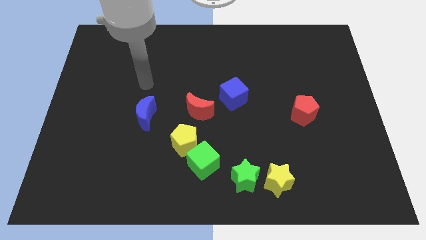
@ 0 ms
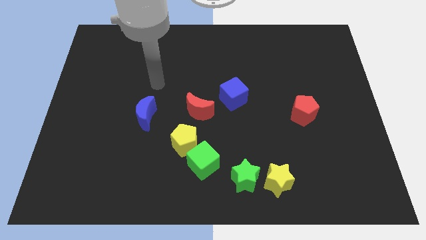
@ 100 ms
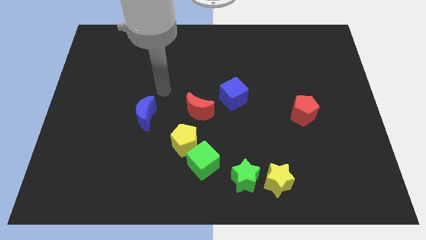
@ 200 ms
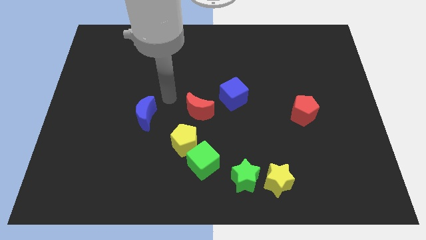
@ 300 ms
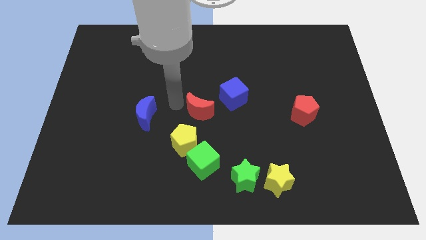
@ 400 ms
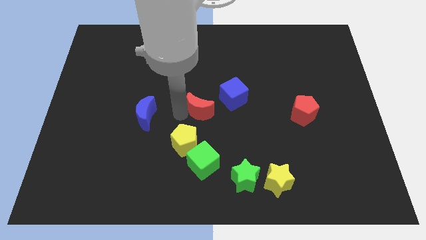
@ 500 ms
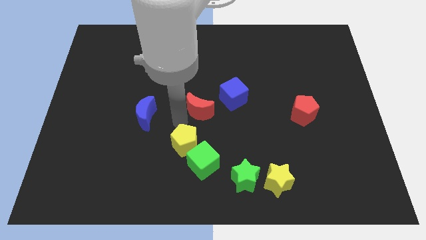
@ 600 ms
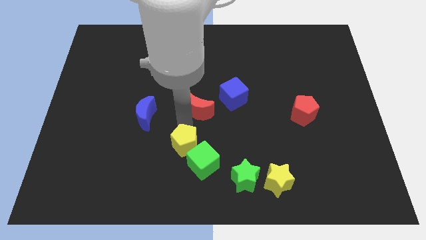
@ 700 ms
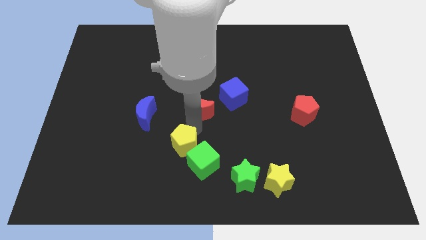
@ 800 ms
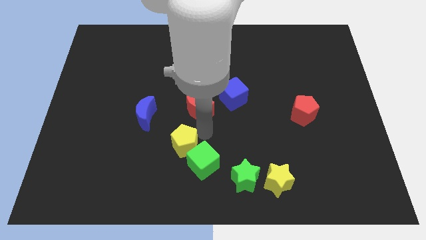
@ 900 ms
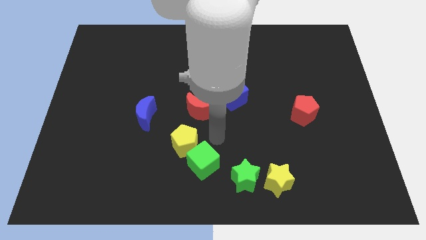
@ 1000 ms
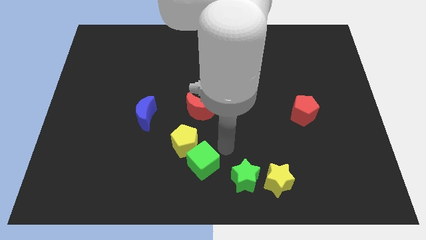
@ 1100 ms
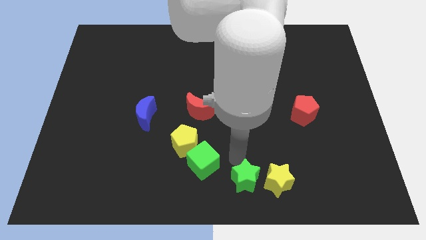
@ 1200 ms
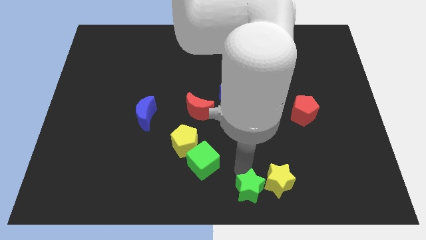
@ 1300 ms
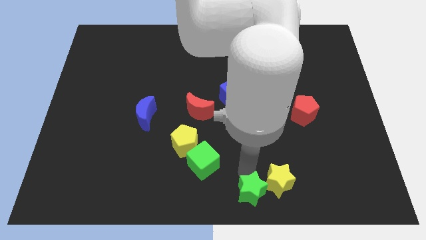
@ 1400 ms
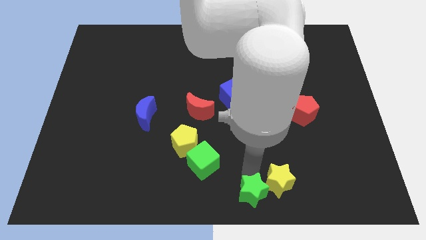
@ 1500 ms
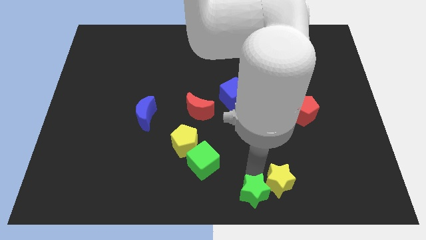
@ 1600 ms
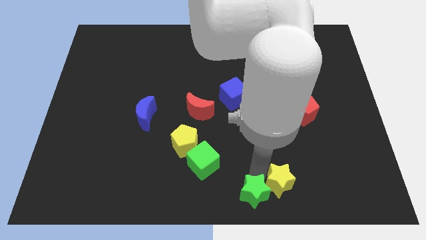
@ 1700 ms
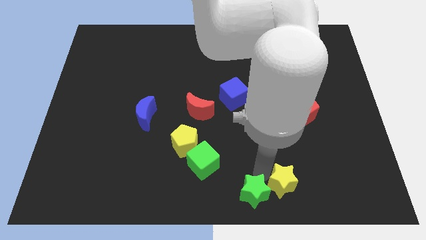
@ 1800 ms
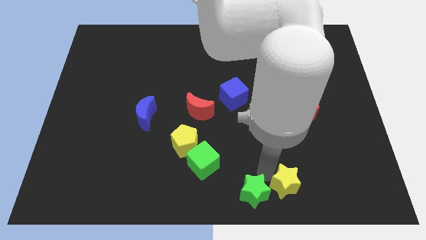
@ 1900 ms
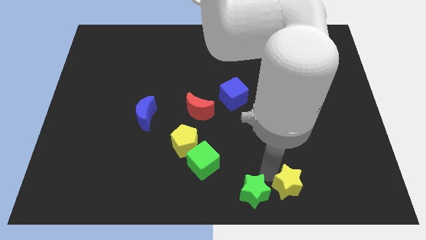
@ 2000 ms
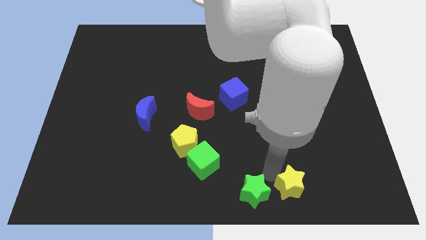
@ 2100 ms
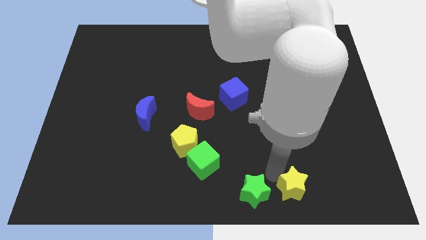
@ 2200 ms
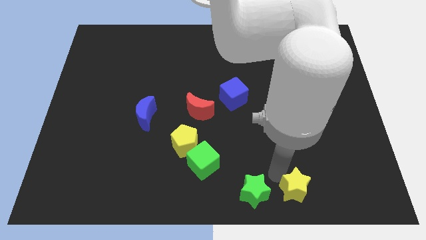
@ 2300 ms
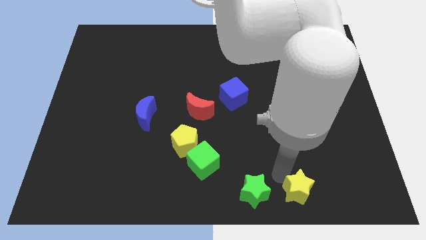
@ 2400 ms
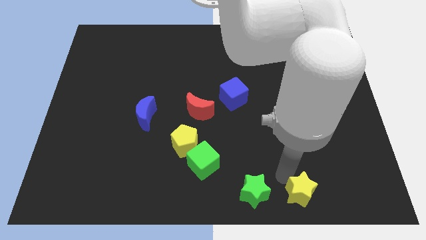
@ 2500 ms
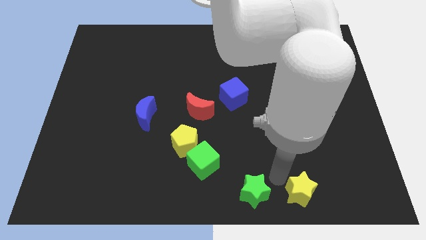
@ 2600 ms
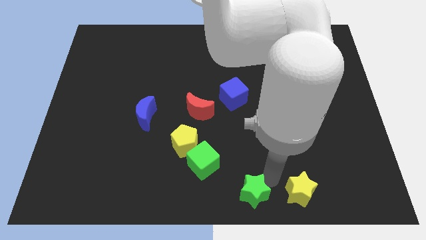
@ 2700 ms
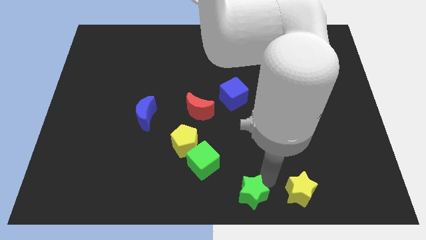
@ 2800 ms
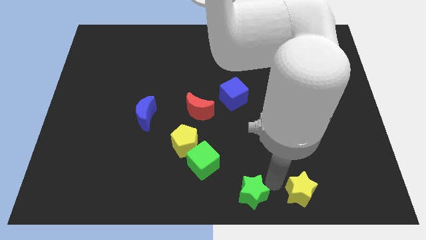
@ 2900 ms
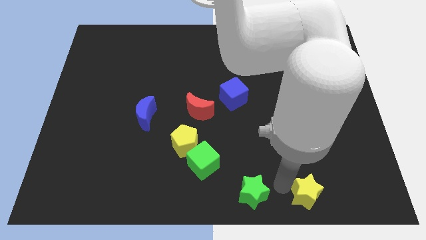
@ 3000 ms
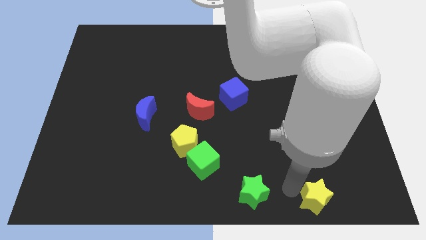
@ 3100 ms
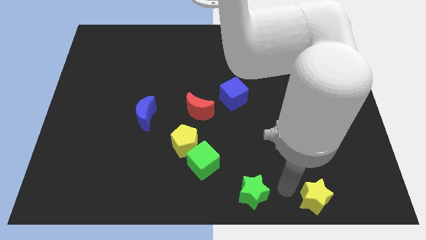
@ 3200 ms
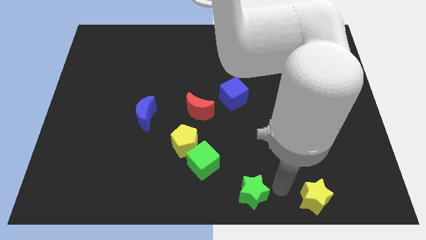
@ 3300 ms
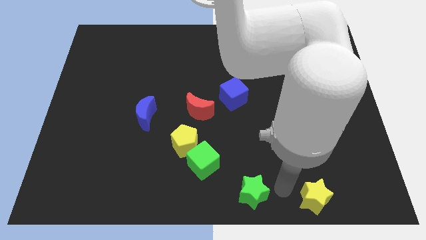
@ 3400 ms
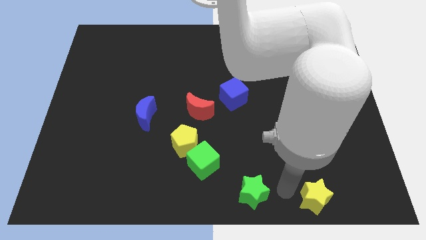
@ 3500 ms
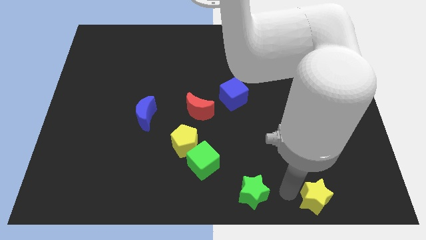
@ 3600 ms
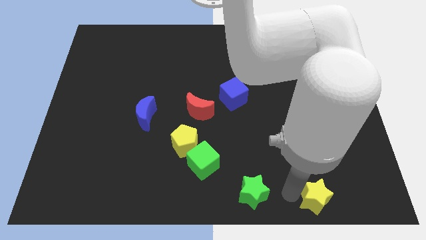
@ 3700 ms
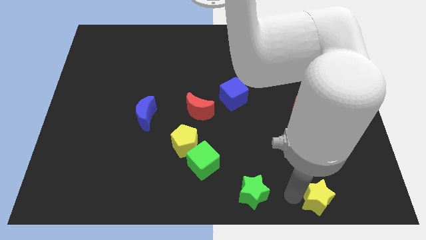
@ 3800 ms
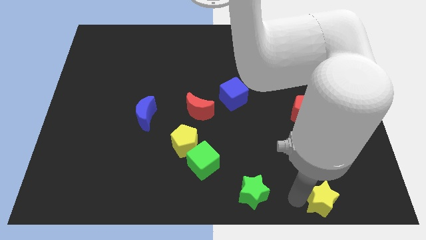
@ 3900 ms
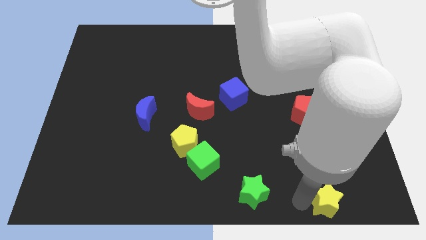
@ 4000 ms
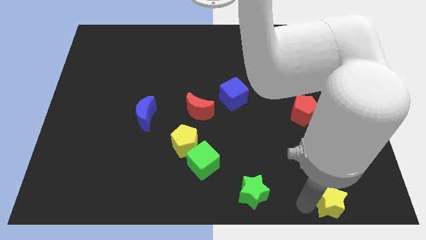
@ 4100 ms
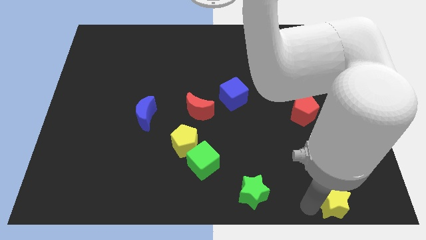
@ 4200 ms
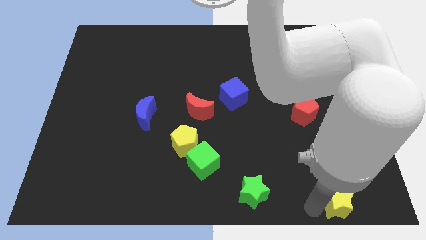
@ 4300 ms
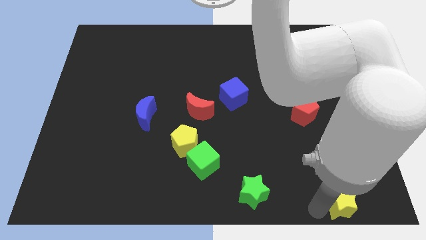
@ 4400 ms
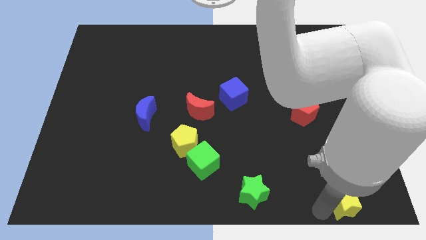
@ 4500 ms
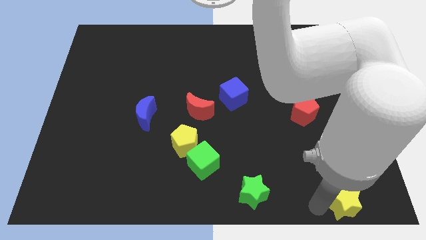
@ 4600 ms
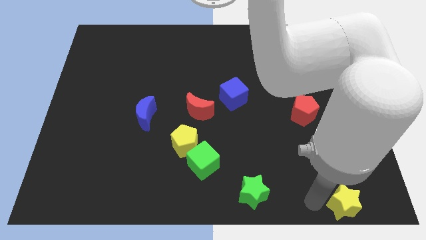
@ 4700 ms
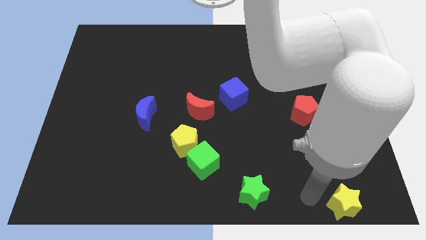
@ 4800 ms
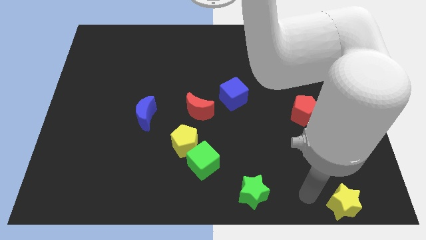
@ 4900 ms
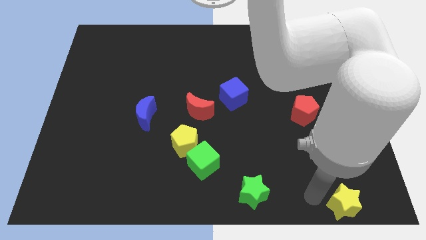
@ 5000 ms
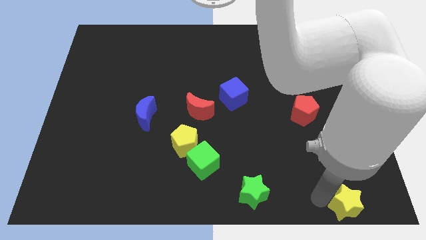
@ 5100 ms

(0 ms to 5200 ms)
put the yellow star to the bottom right

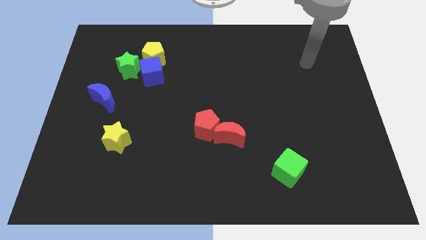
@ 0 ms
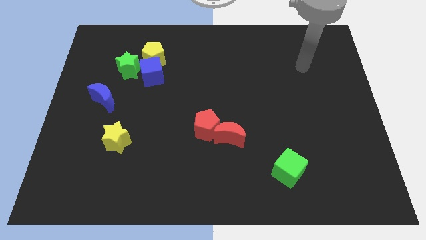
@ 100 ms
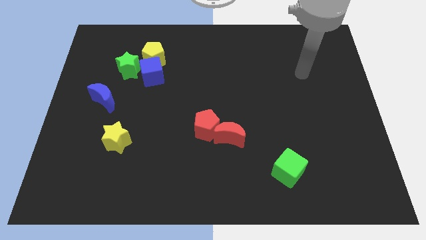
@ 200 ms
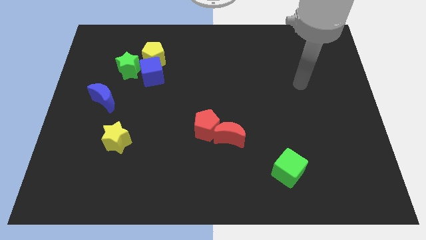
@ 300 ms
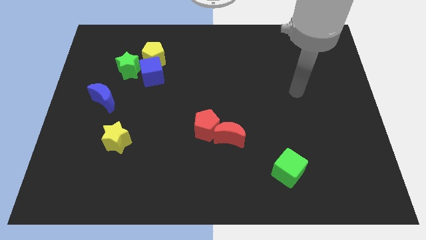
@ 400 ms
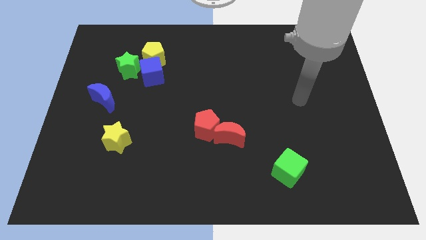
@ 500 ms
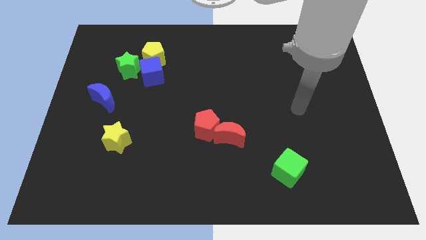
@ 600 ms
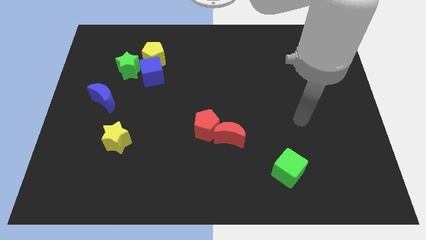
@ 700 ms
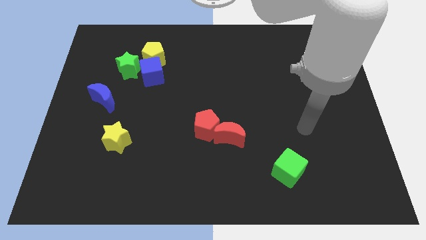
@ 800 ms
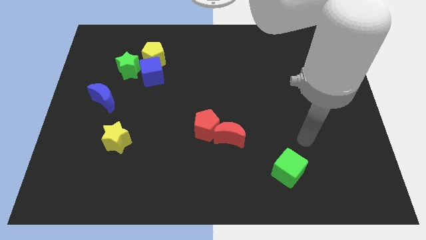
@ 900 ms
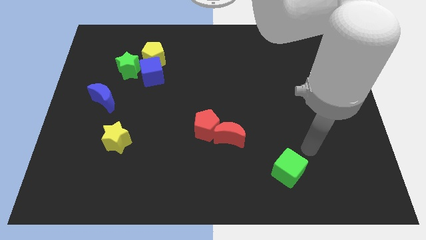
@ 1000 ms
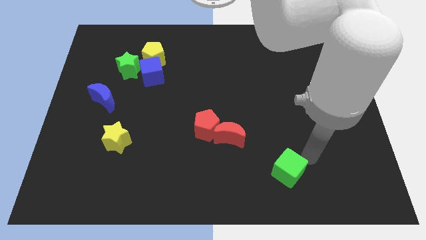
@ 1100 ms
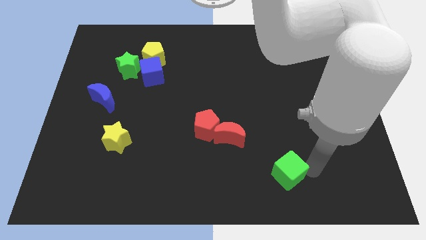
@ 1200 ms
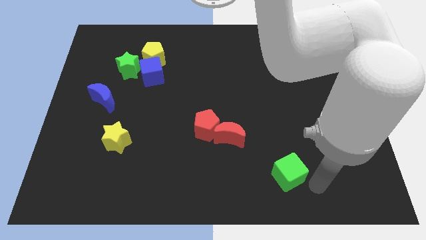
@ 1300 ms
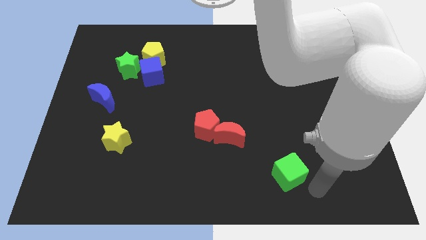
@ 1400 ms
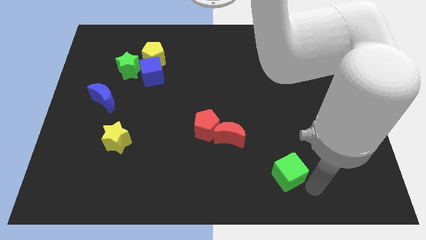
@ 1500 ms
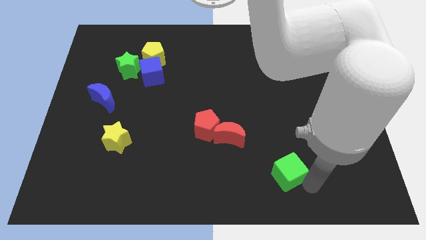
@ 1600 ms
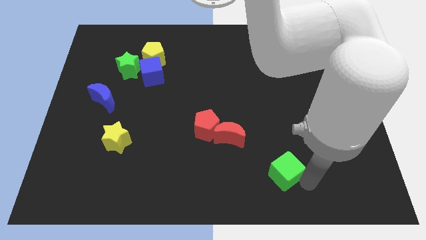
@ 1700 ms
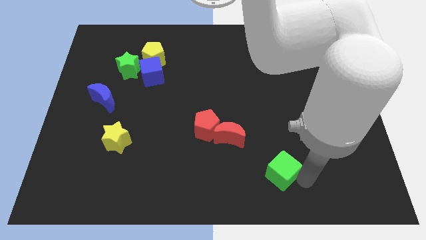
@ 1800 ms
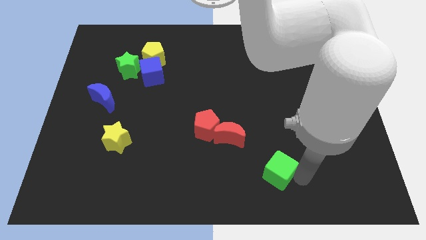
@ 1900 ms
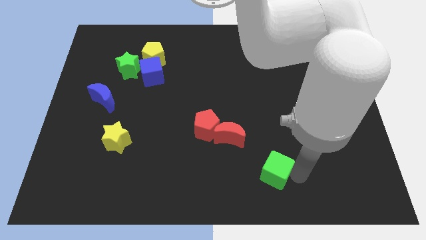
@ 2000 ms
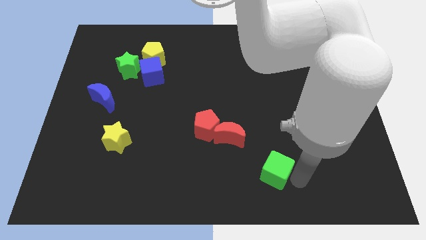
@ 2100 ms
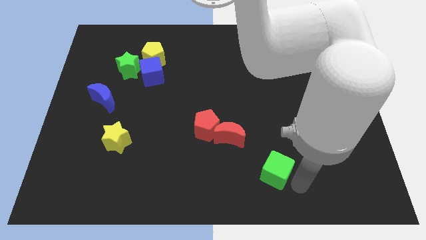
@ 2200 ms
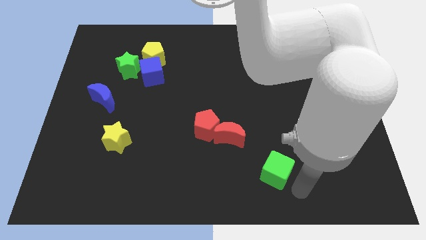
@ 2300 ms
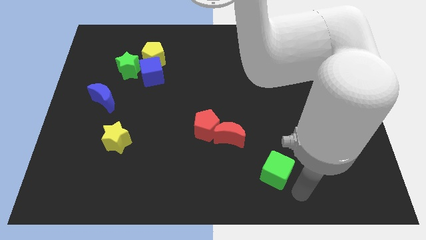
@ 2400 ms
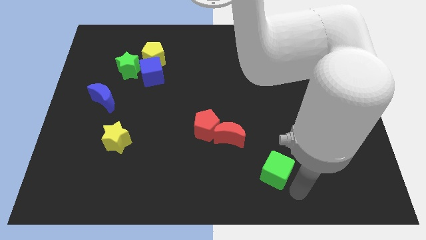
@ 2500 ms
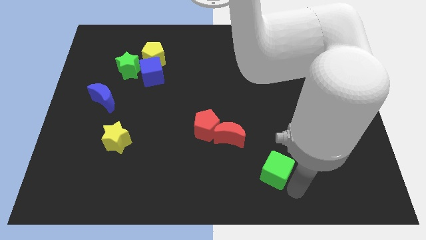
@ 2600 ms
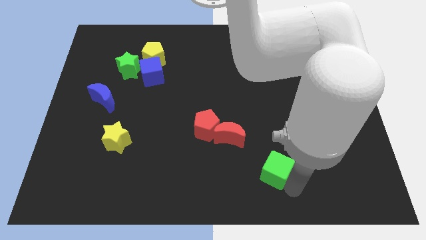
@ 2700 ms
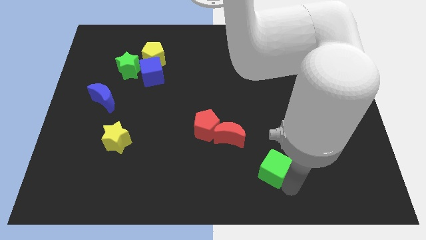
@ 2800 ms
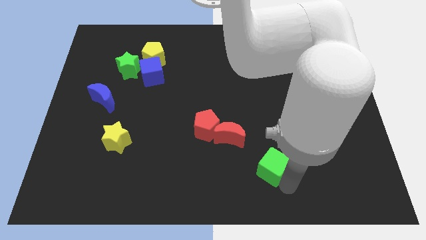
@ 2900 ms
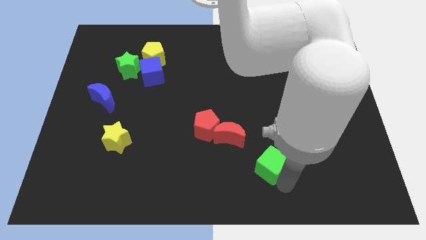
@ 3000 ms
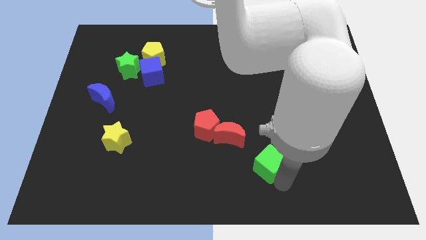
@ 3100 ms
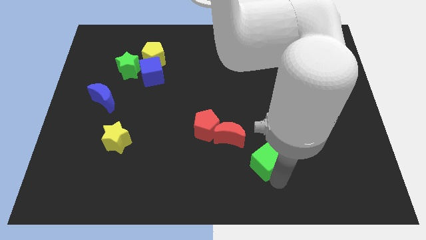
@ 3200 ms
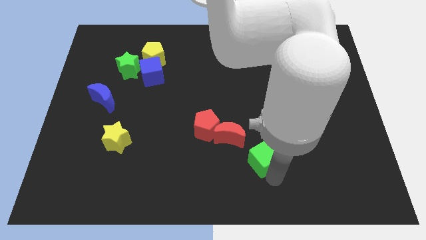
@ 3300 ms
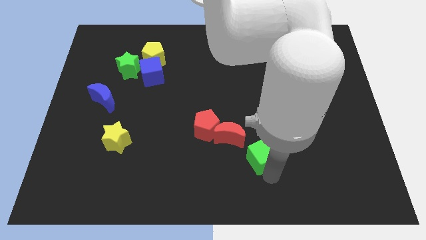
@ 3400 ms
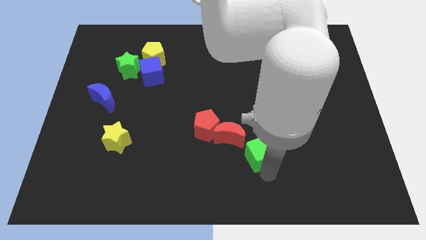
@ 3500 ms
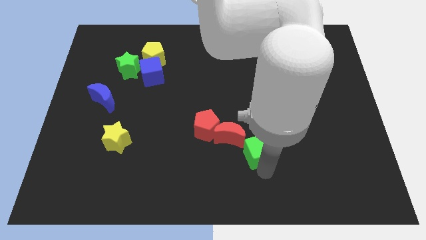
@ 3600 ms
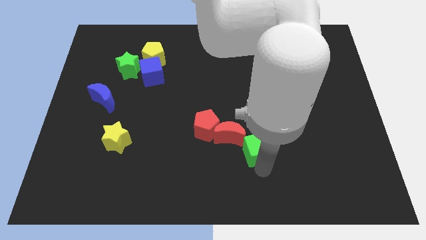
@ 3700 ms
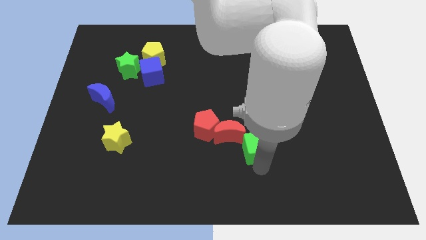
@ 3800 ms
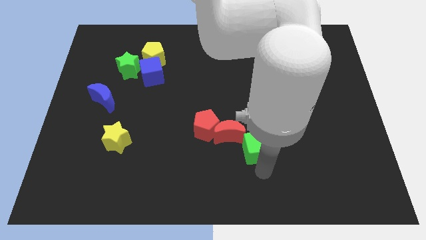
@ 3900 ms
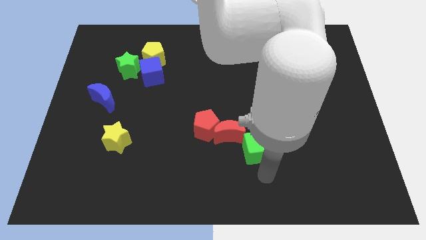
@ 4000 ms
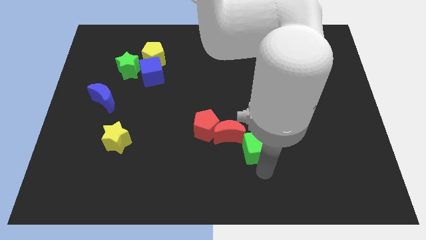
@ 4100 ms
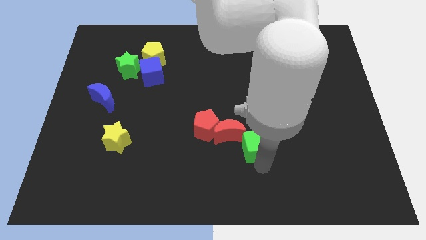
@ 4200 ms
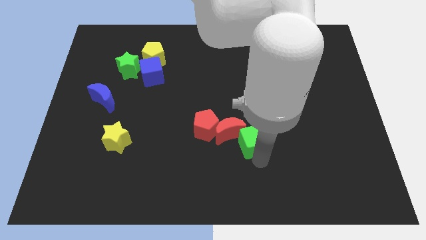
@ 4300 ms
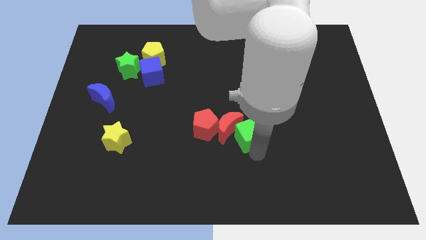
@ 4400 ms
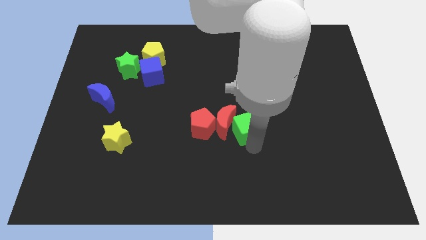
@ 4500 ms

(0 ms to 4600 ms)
slide the green cube to the center
